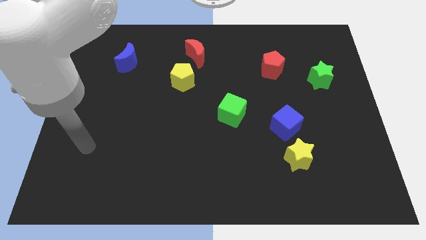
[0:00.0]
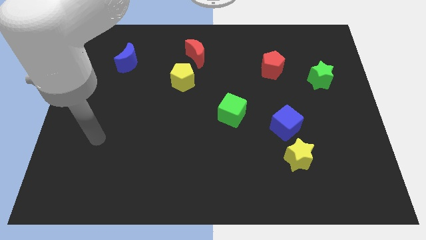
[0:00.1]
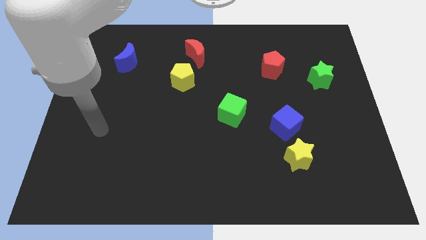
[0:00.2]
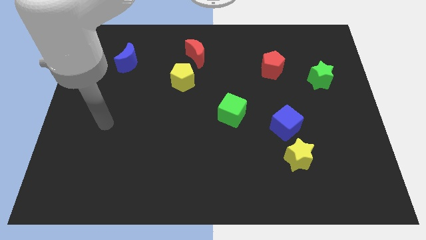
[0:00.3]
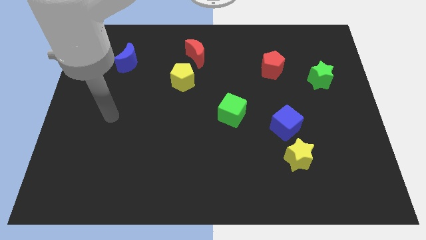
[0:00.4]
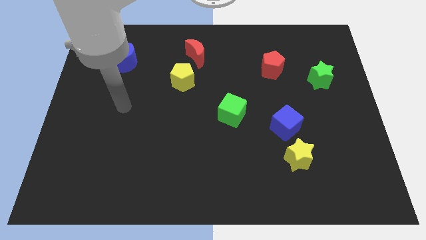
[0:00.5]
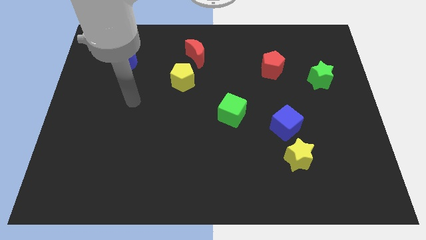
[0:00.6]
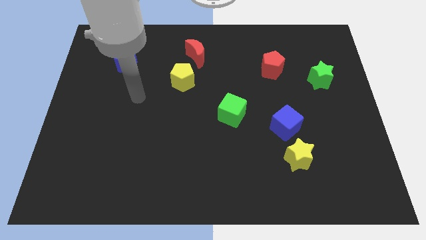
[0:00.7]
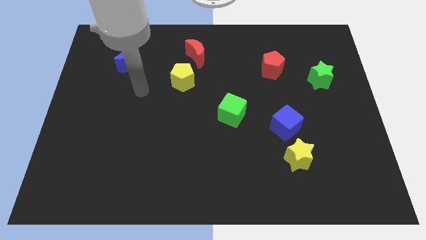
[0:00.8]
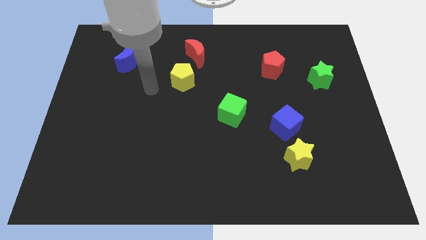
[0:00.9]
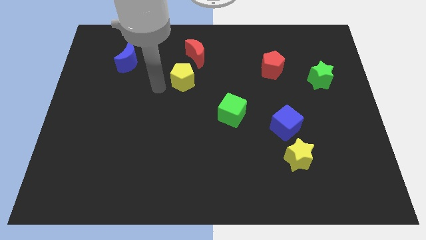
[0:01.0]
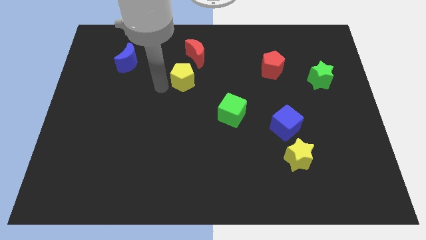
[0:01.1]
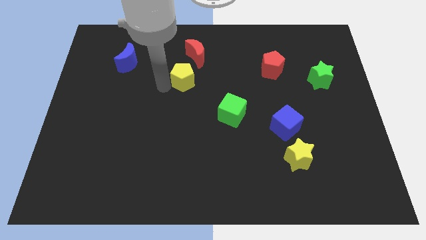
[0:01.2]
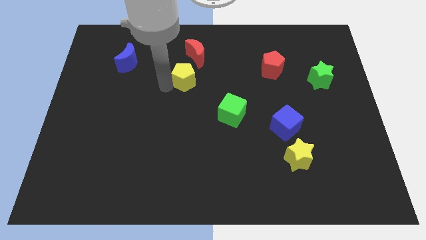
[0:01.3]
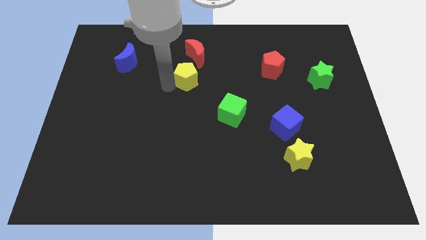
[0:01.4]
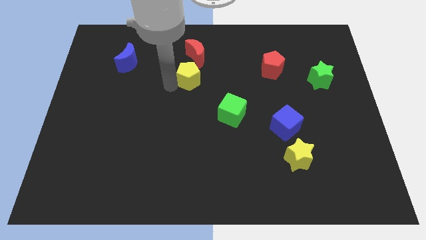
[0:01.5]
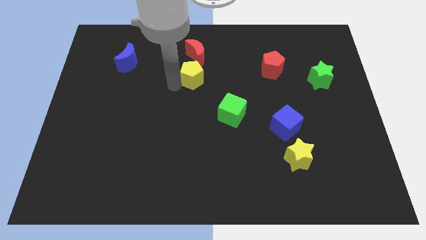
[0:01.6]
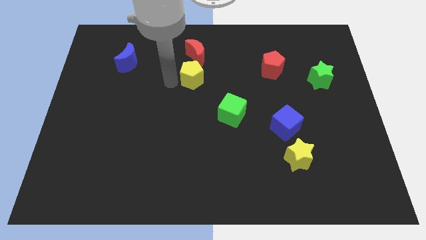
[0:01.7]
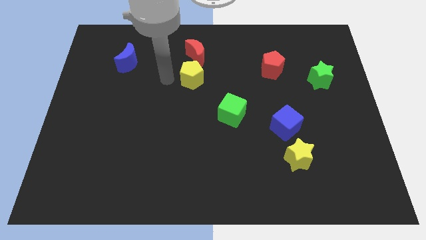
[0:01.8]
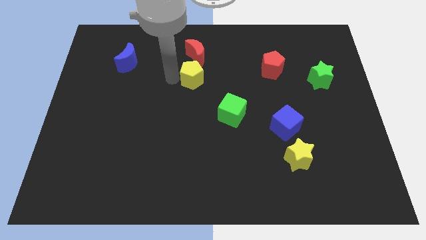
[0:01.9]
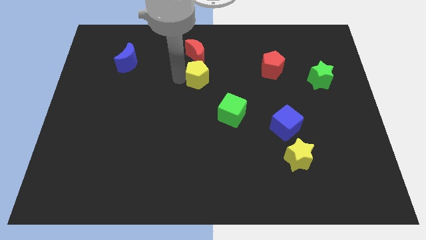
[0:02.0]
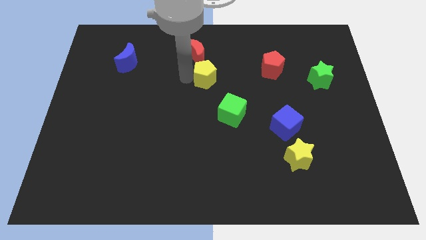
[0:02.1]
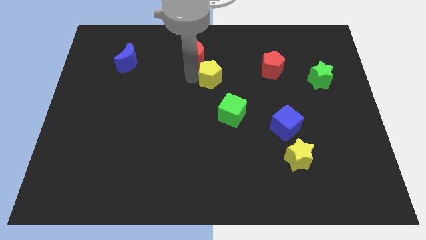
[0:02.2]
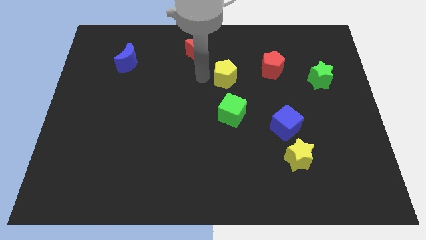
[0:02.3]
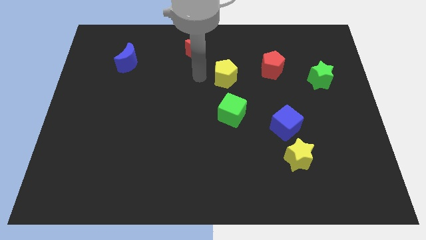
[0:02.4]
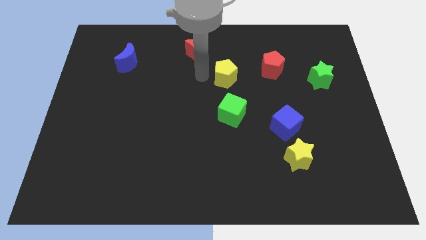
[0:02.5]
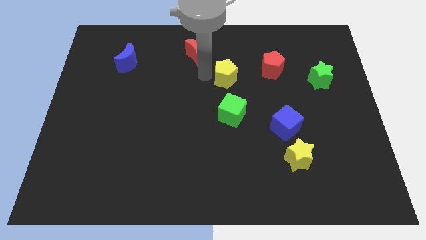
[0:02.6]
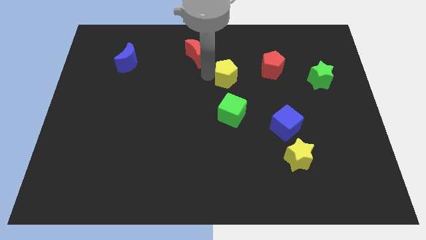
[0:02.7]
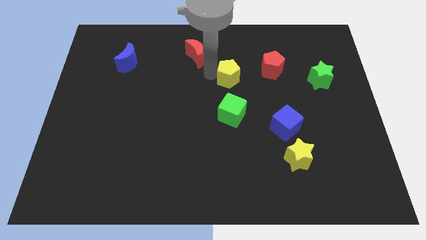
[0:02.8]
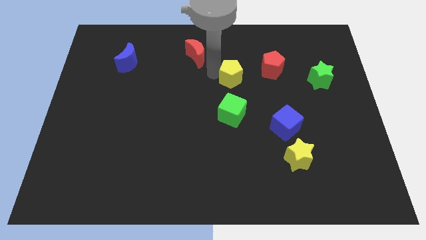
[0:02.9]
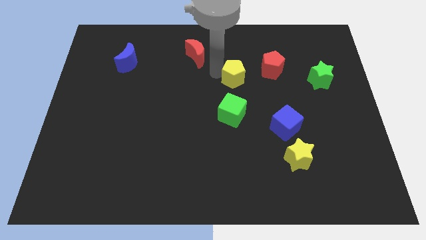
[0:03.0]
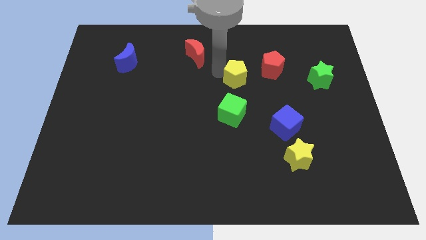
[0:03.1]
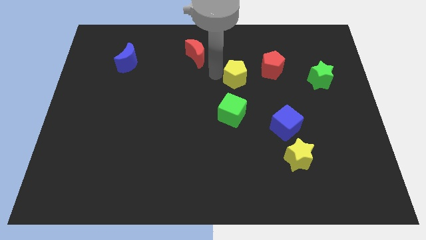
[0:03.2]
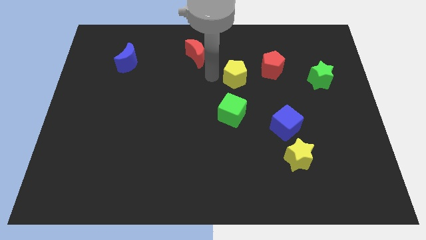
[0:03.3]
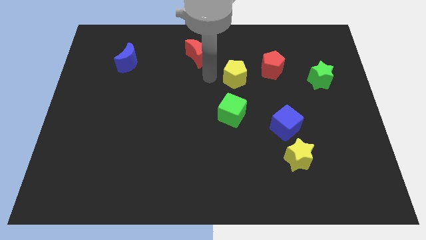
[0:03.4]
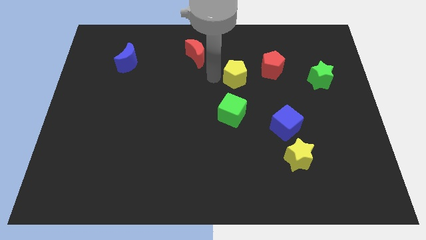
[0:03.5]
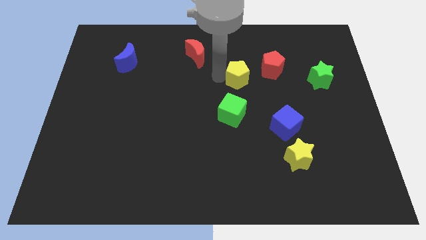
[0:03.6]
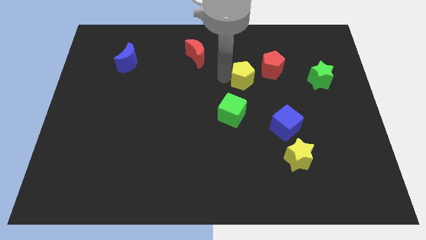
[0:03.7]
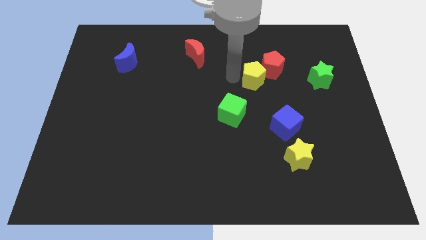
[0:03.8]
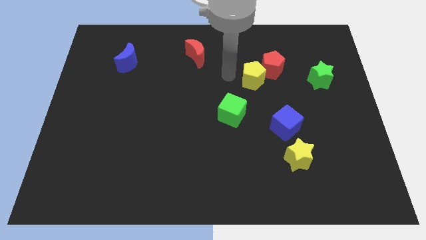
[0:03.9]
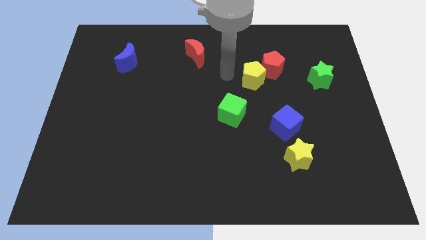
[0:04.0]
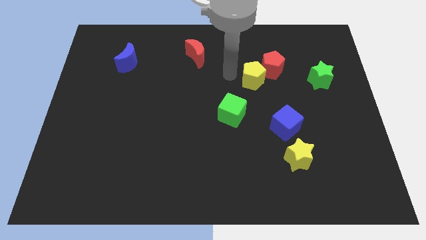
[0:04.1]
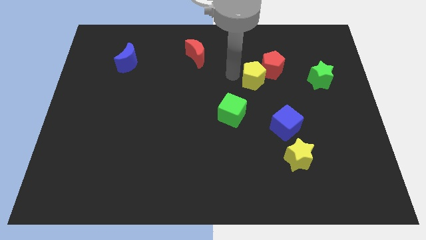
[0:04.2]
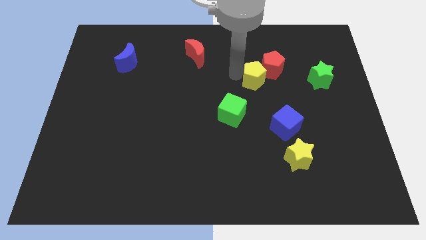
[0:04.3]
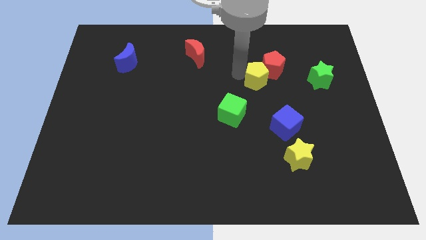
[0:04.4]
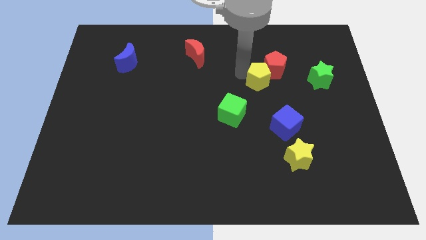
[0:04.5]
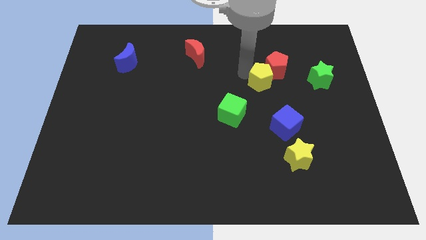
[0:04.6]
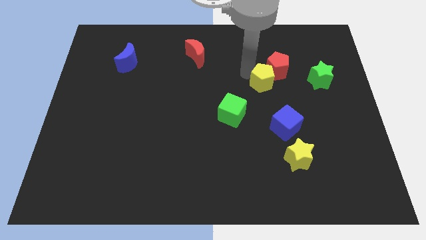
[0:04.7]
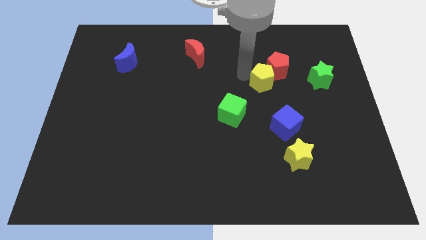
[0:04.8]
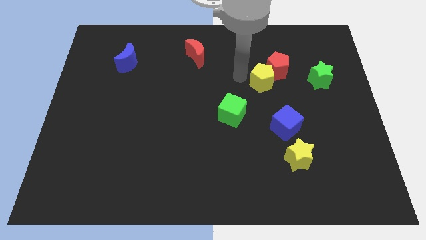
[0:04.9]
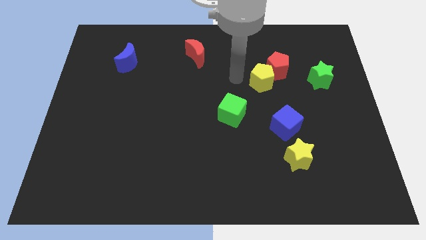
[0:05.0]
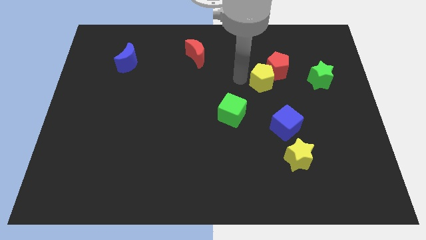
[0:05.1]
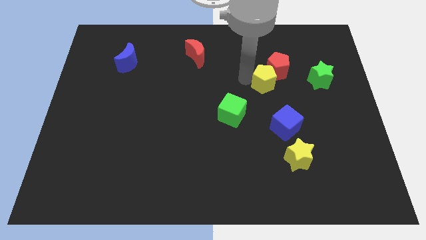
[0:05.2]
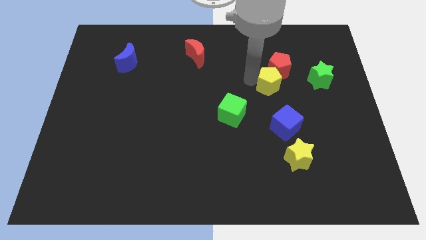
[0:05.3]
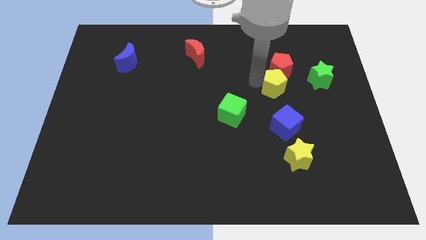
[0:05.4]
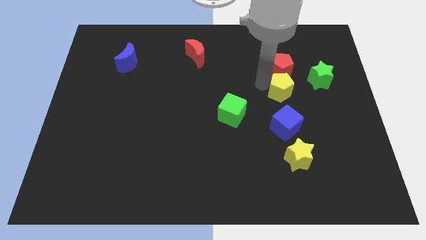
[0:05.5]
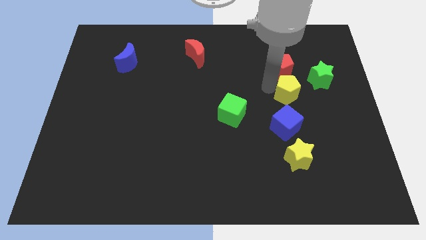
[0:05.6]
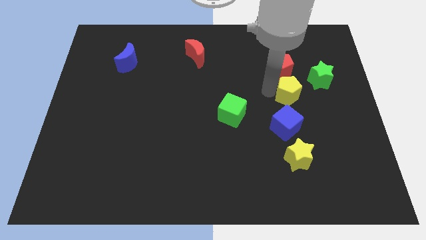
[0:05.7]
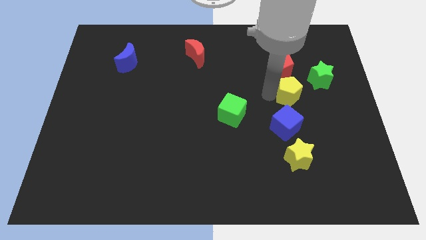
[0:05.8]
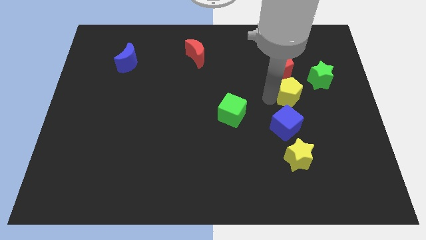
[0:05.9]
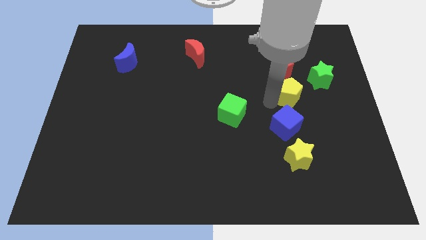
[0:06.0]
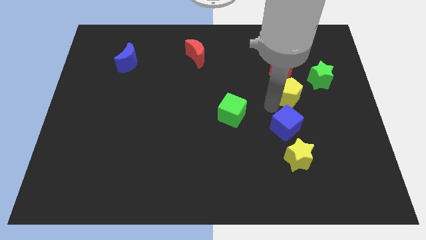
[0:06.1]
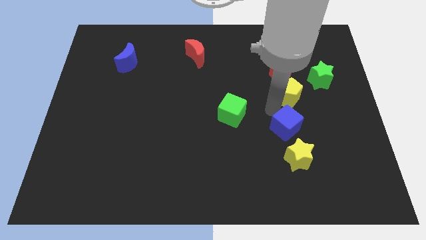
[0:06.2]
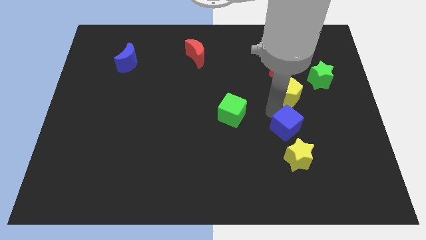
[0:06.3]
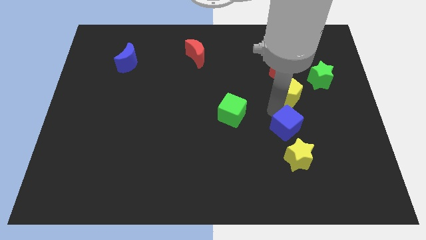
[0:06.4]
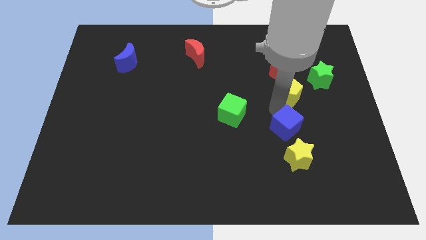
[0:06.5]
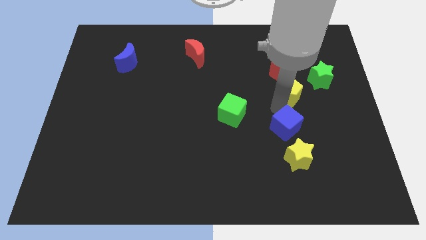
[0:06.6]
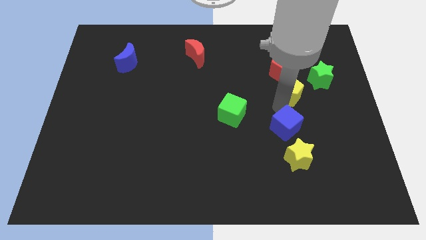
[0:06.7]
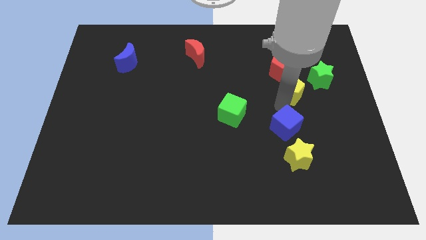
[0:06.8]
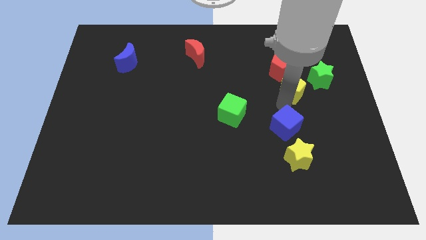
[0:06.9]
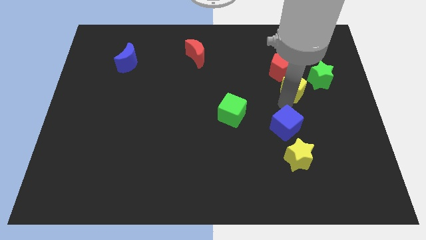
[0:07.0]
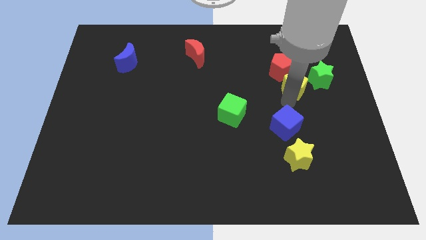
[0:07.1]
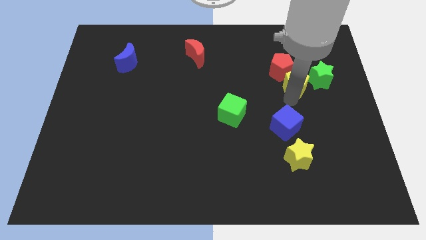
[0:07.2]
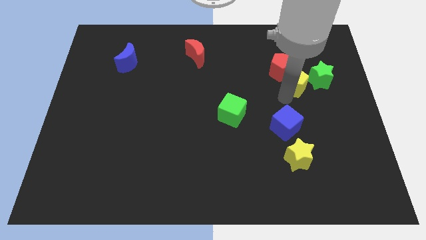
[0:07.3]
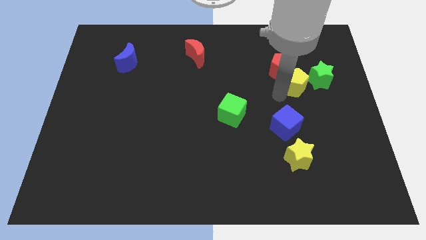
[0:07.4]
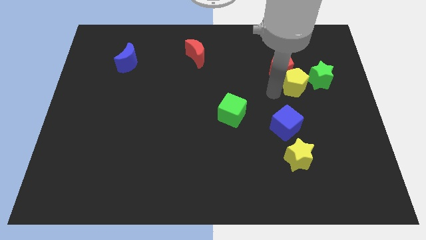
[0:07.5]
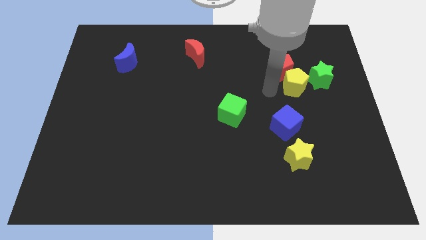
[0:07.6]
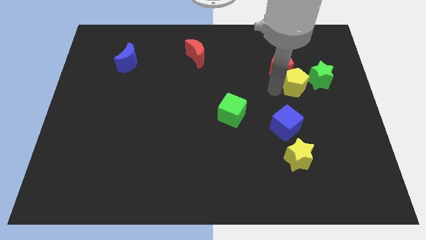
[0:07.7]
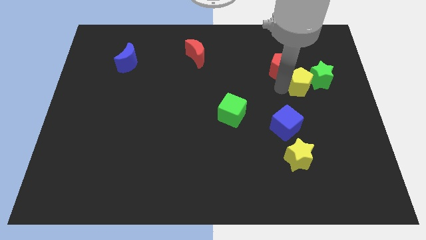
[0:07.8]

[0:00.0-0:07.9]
push the yellow pentagon to the green star
